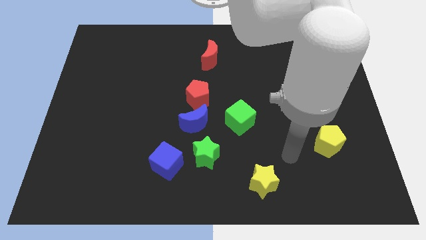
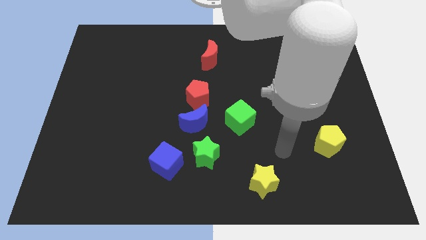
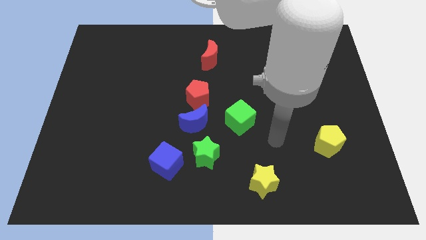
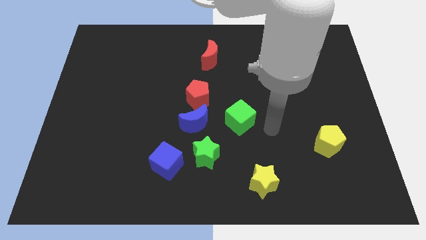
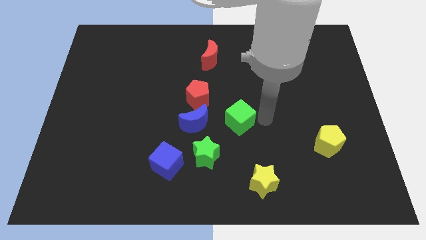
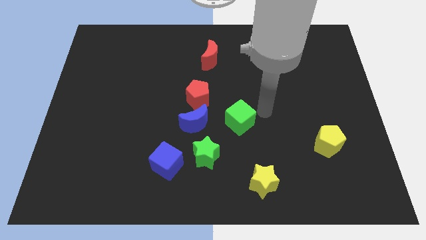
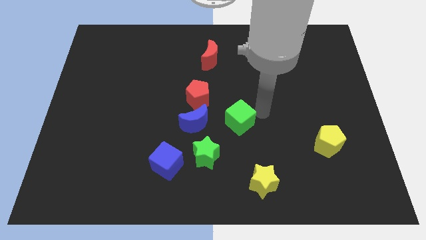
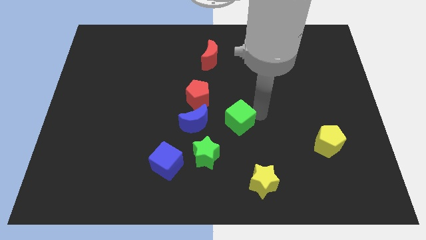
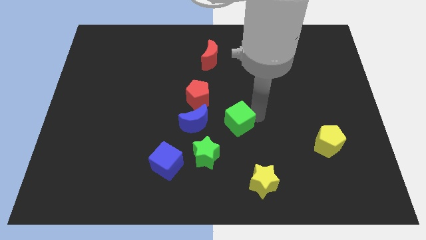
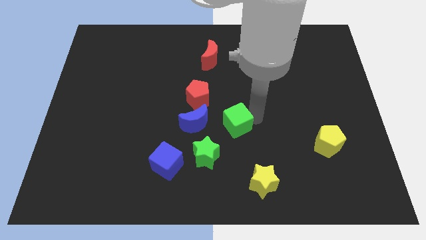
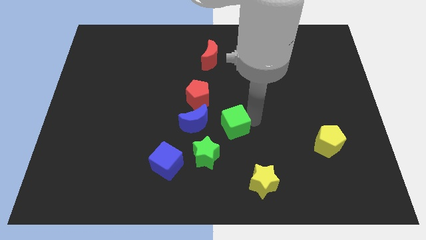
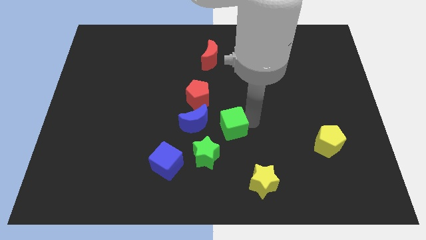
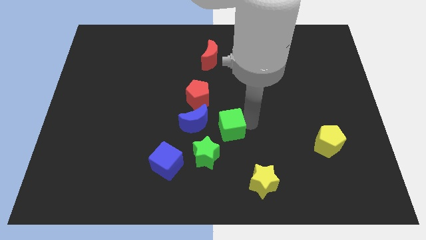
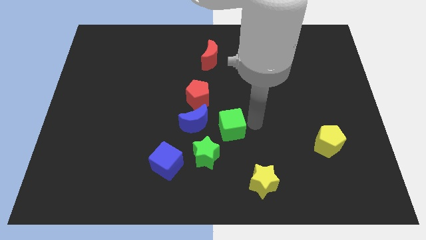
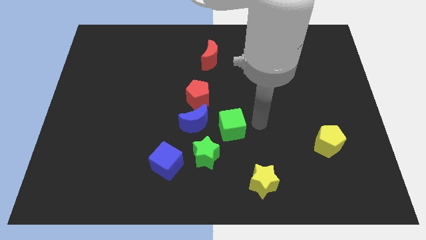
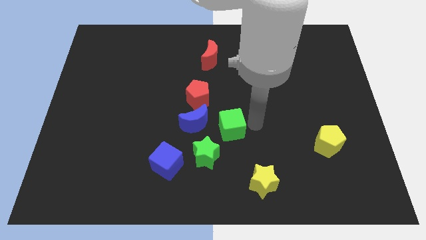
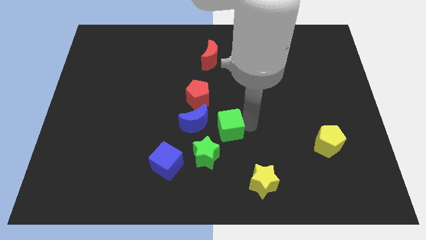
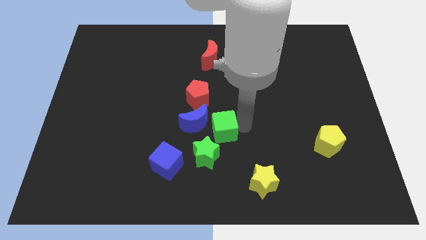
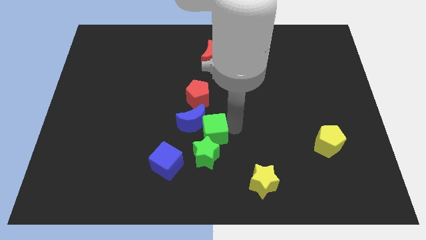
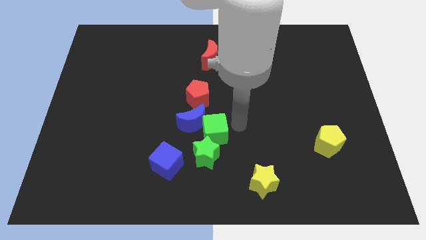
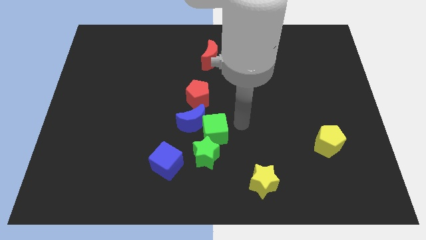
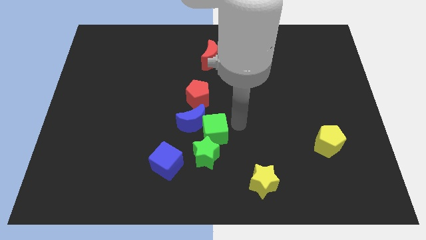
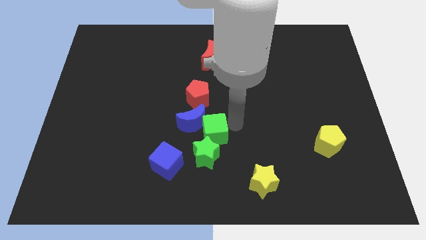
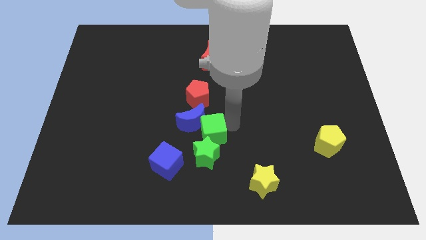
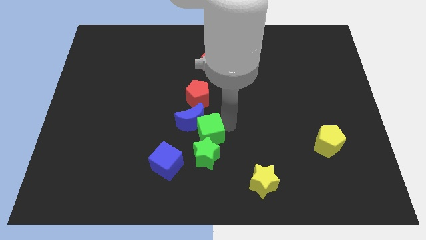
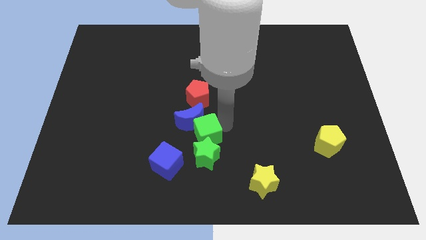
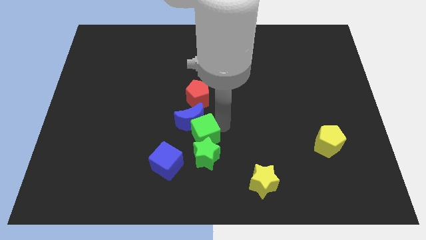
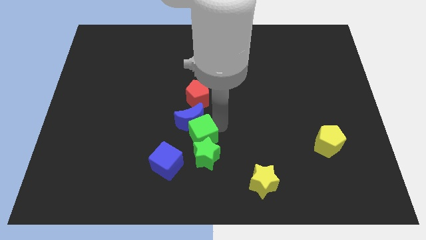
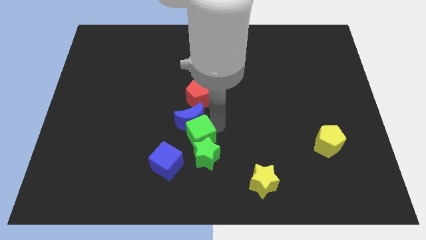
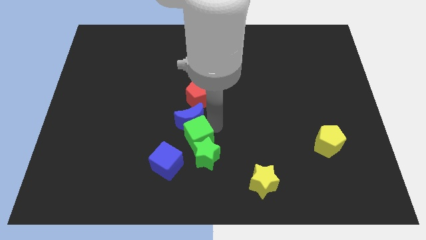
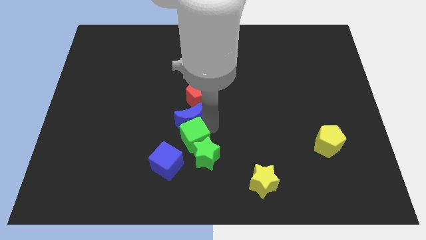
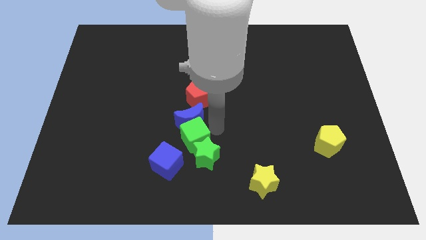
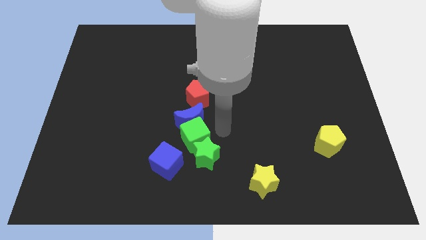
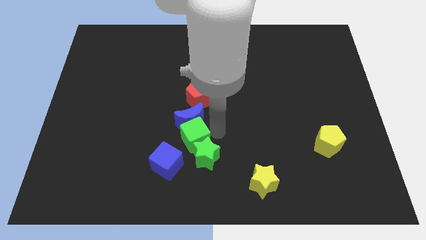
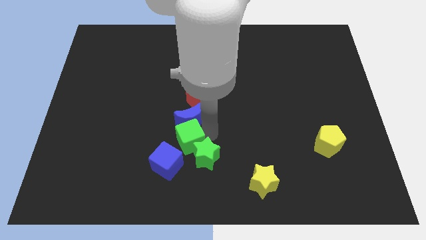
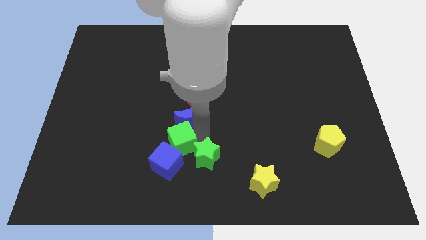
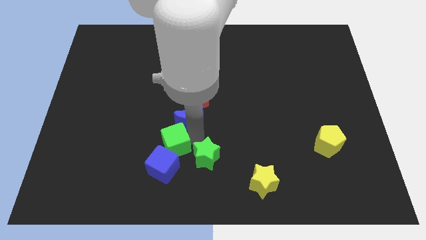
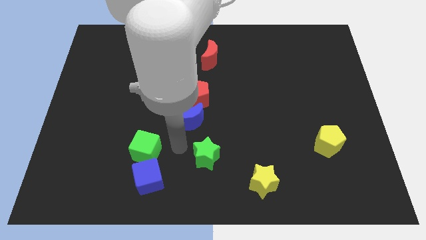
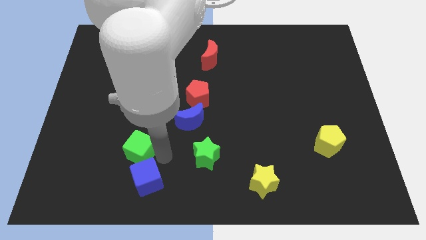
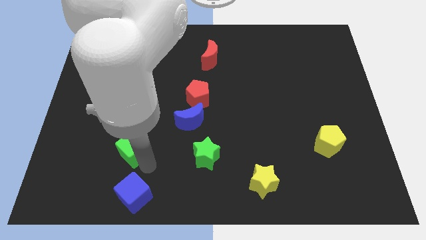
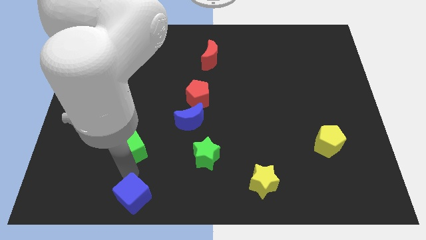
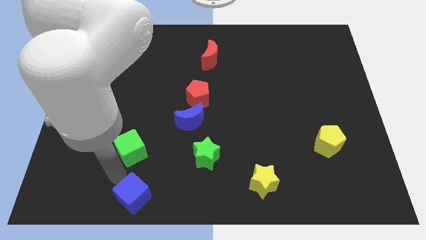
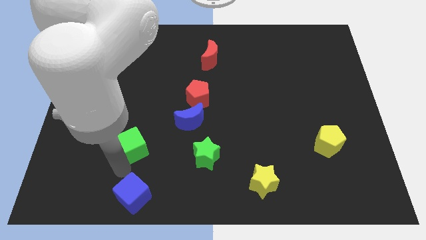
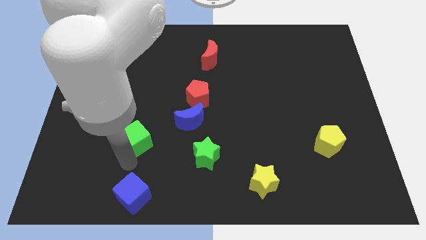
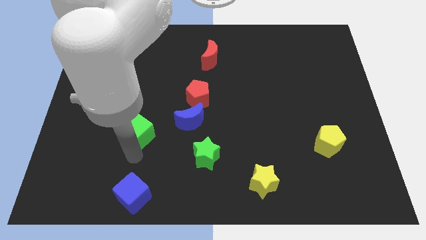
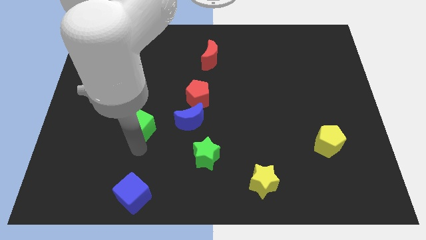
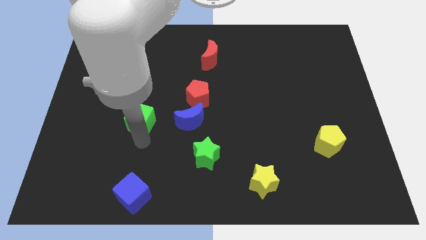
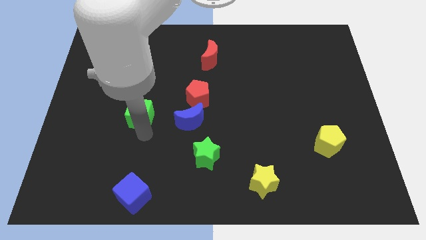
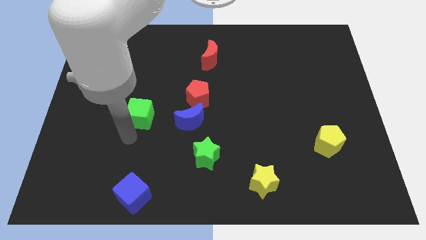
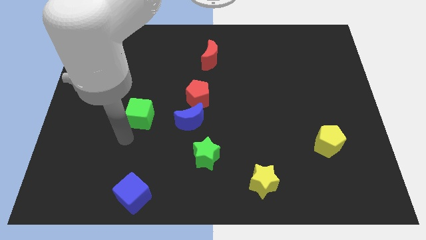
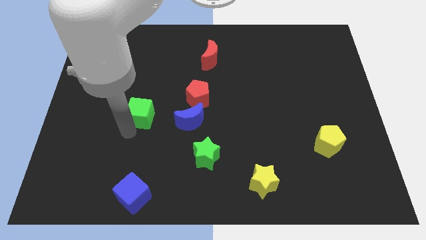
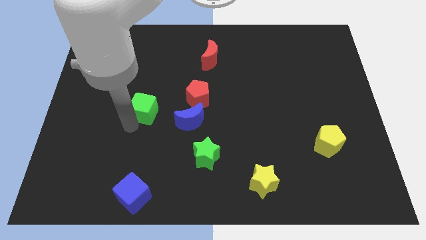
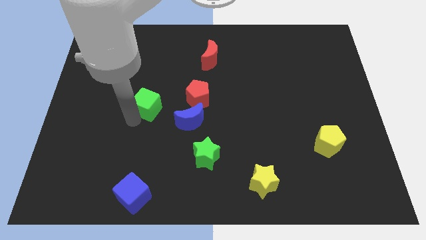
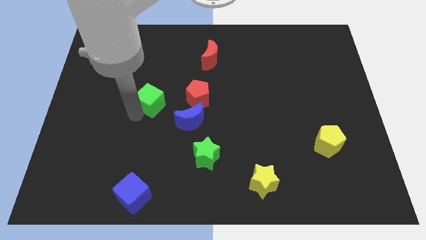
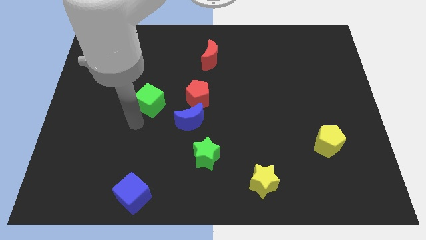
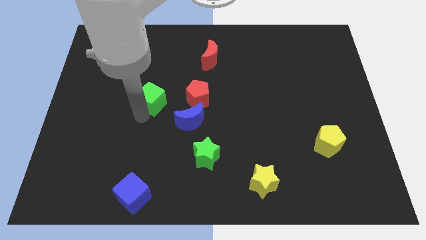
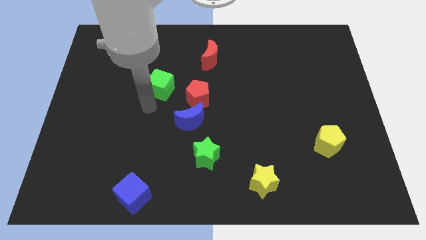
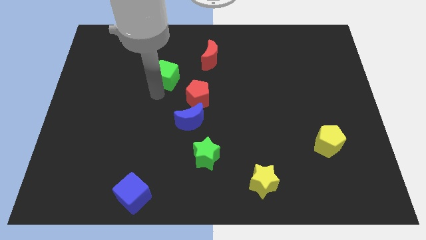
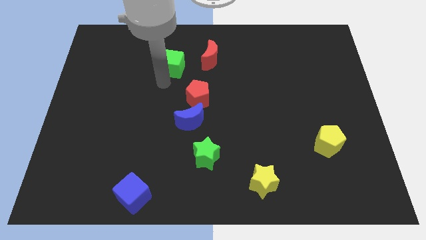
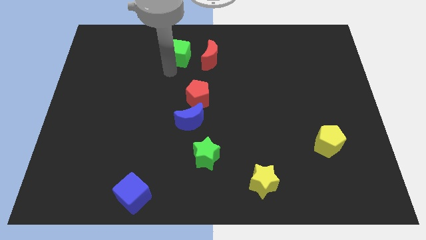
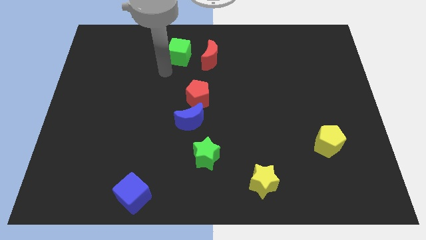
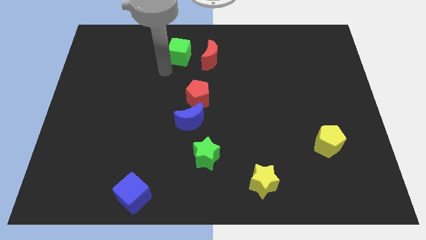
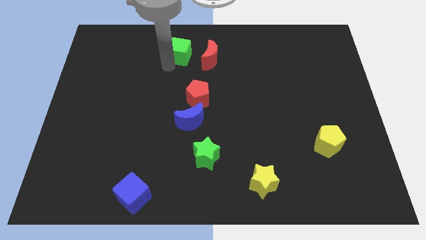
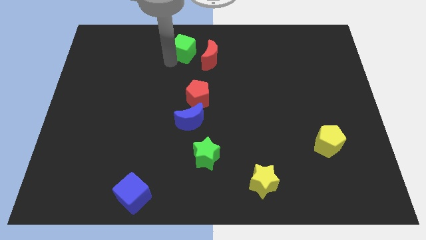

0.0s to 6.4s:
put the green cube to the top

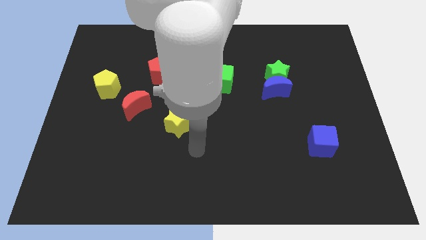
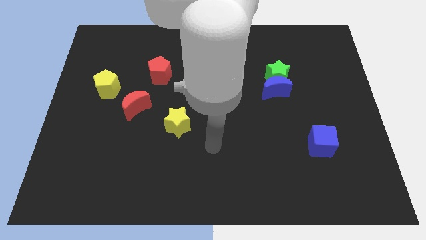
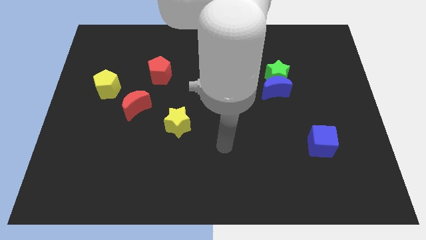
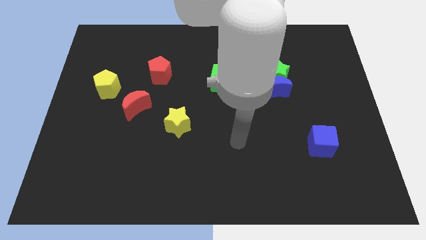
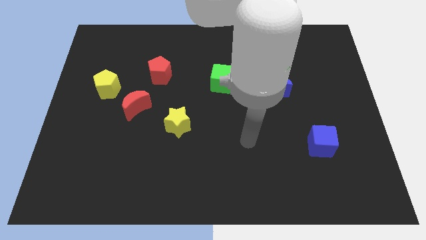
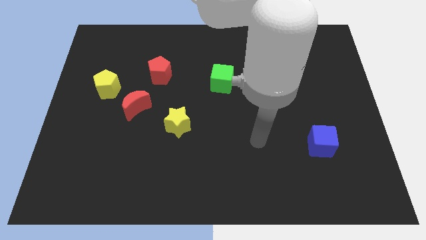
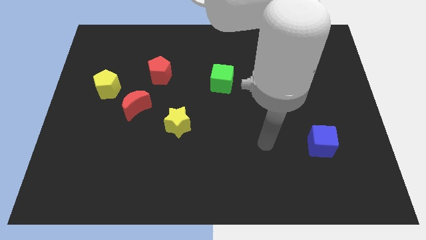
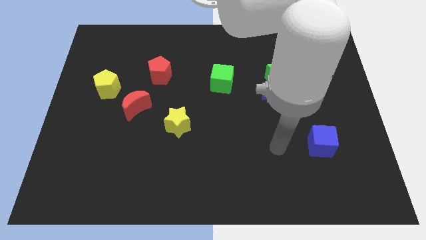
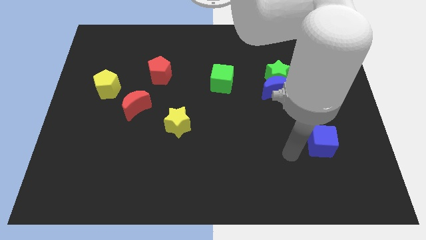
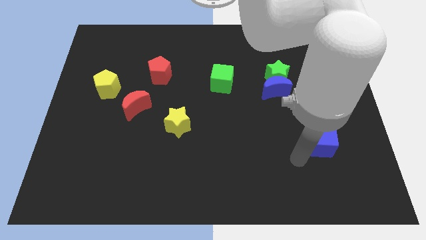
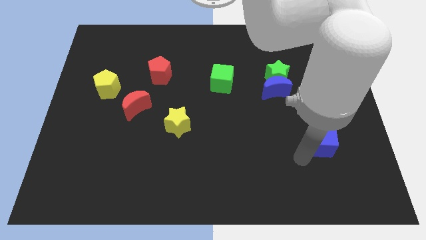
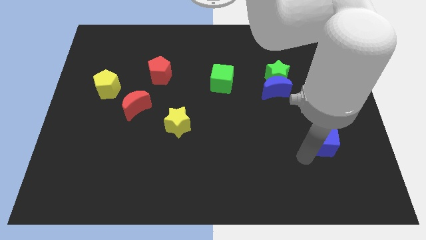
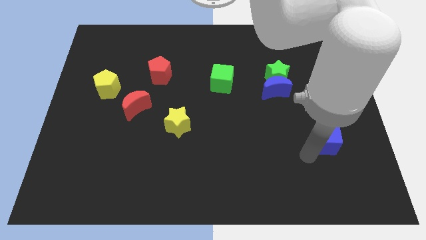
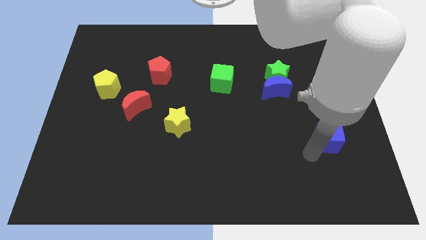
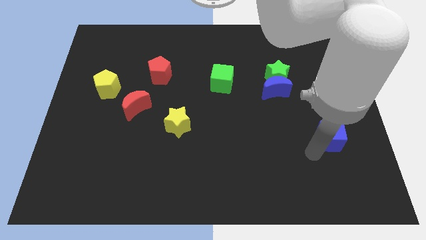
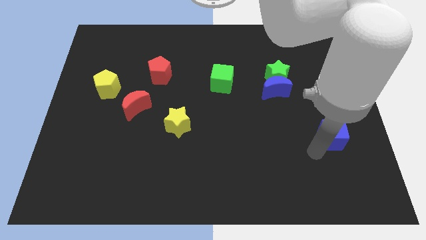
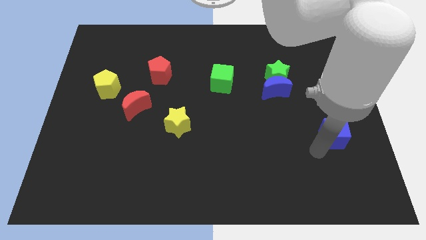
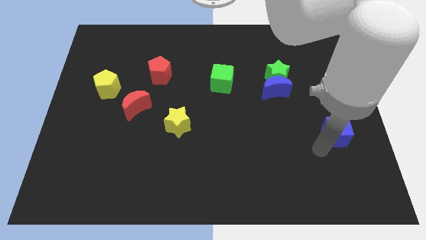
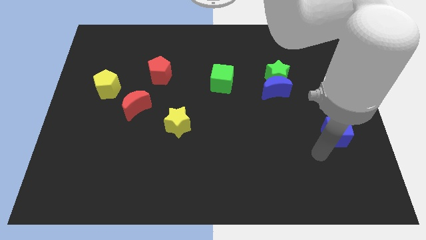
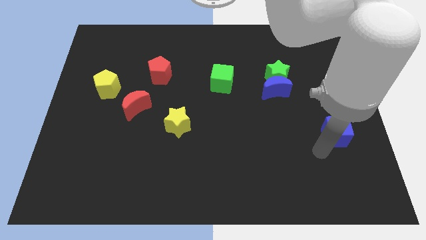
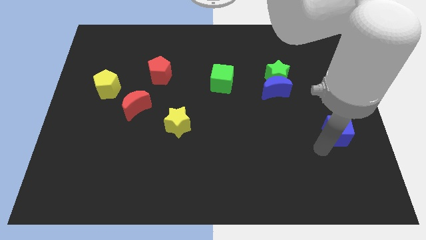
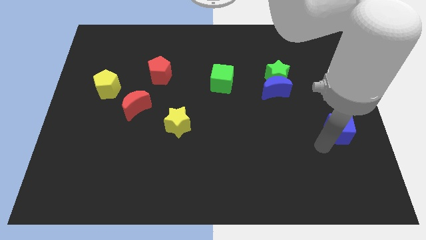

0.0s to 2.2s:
push the blue cube to the center right
